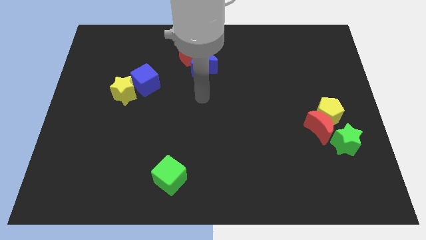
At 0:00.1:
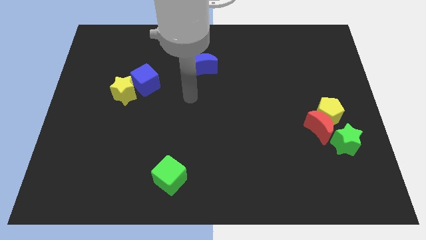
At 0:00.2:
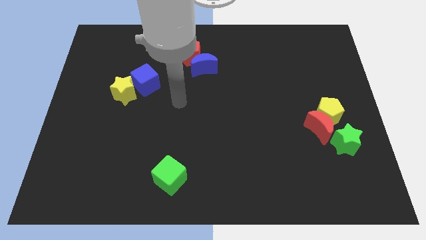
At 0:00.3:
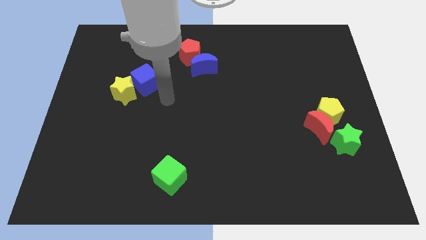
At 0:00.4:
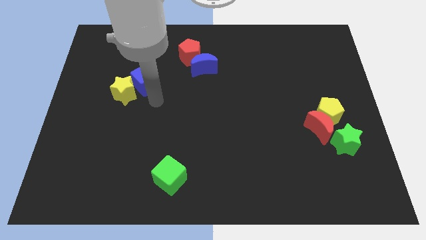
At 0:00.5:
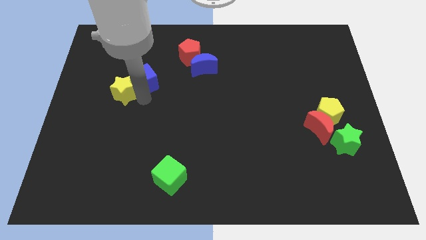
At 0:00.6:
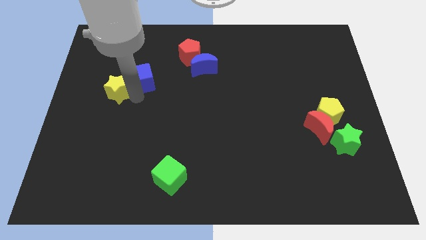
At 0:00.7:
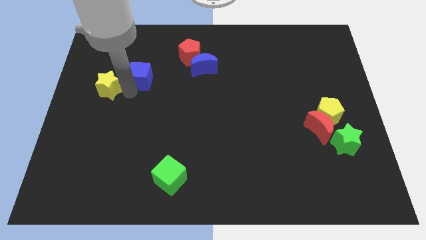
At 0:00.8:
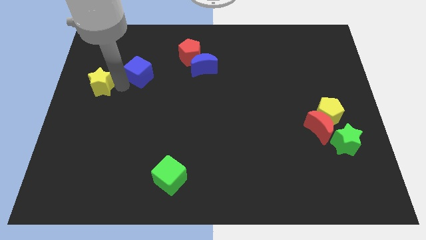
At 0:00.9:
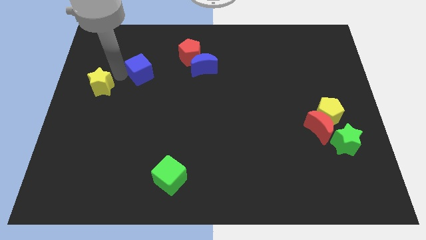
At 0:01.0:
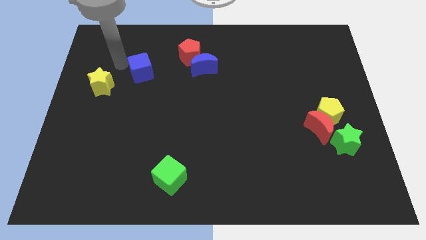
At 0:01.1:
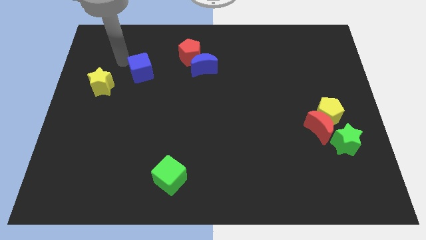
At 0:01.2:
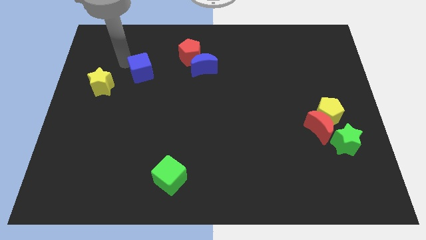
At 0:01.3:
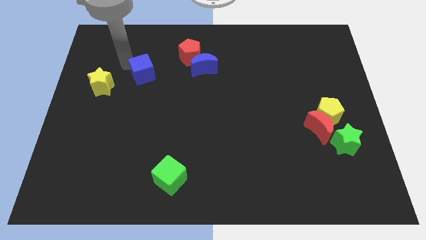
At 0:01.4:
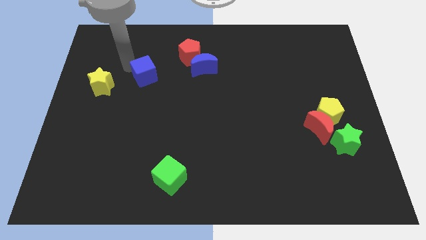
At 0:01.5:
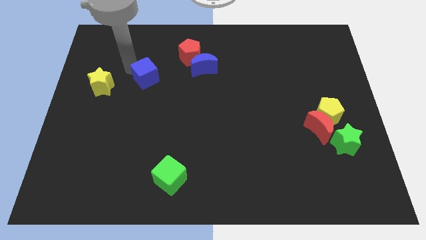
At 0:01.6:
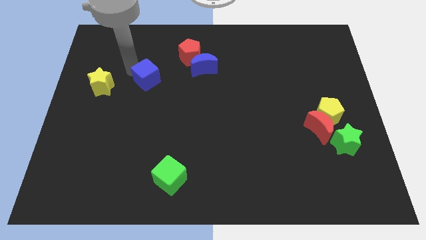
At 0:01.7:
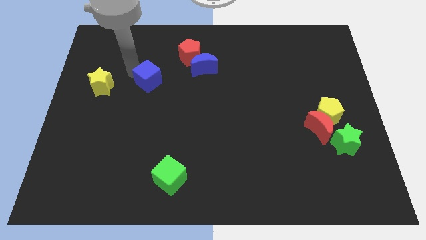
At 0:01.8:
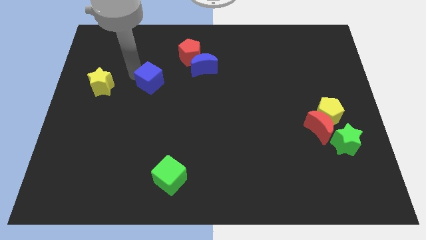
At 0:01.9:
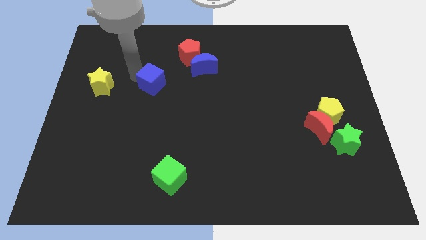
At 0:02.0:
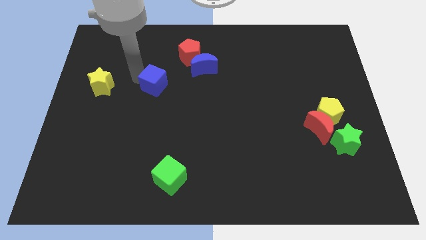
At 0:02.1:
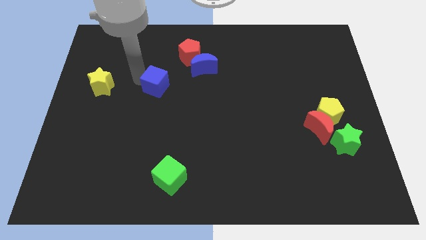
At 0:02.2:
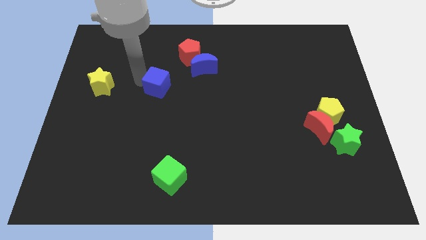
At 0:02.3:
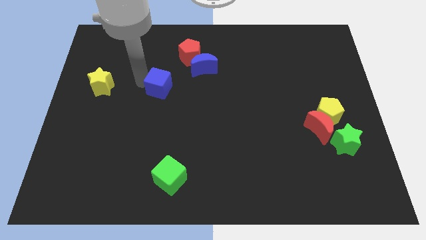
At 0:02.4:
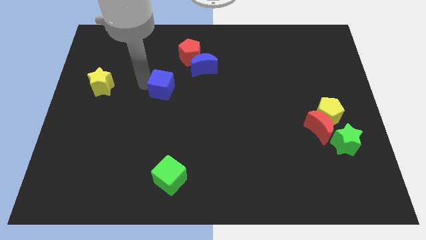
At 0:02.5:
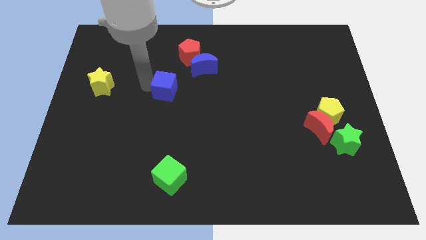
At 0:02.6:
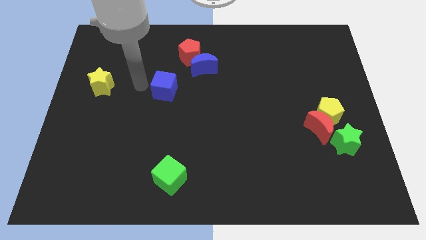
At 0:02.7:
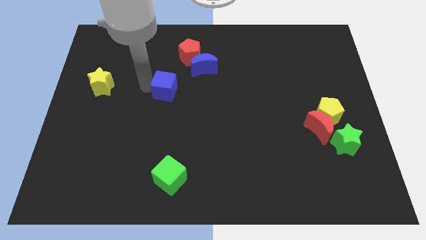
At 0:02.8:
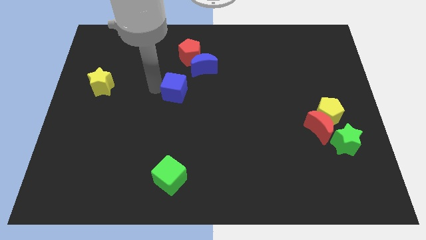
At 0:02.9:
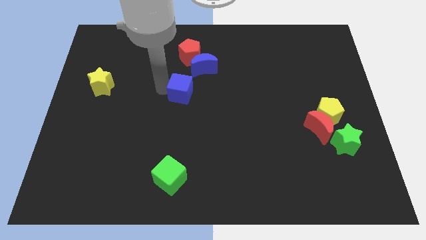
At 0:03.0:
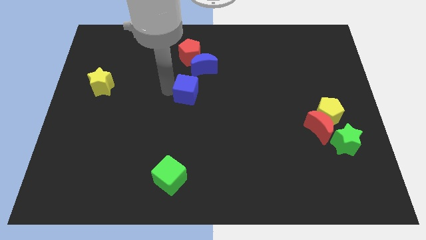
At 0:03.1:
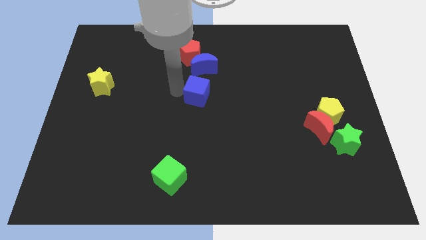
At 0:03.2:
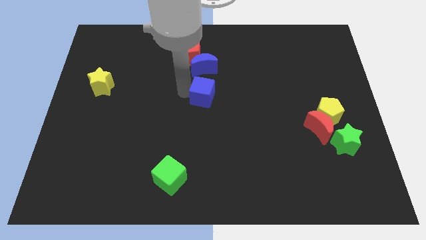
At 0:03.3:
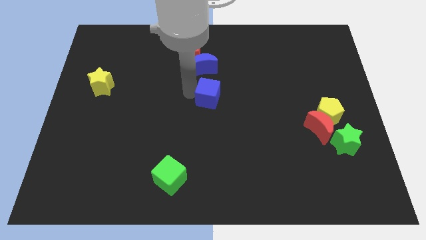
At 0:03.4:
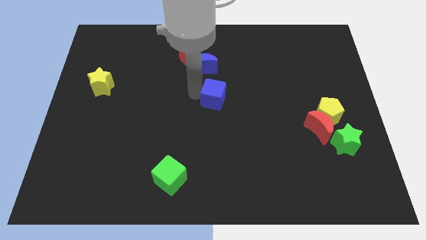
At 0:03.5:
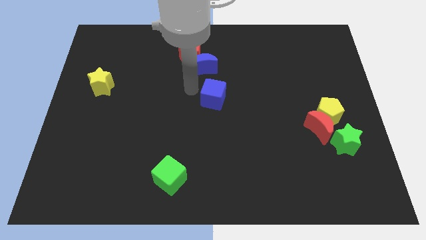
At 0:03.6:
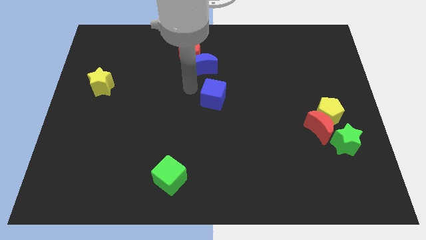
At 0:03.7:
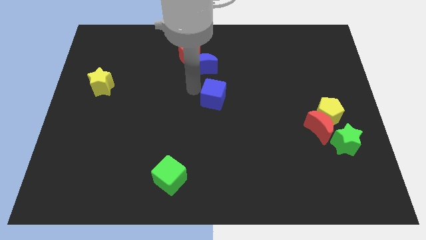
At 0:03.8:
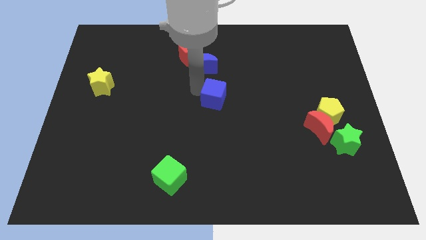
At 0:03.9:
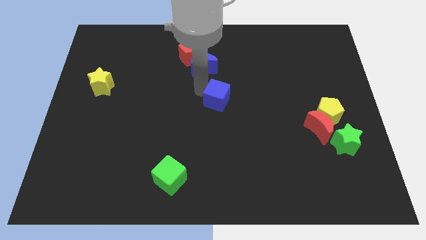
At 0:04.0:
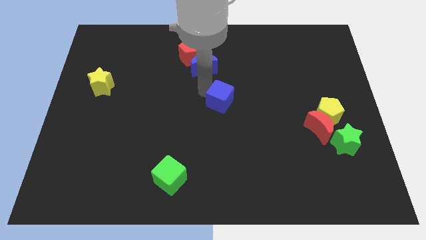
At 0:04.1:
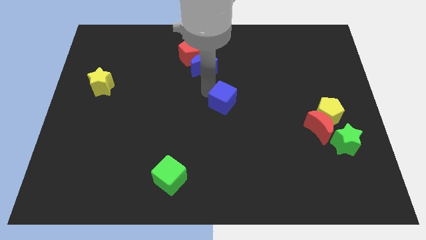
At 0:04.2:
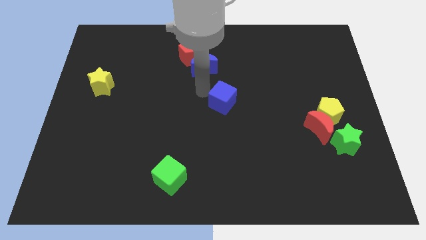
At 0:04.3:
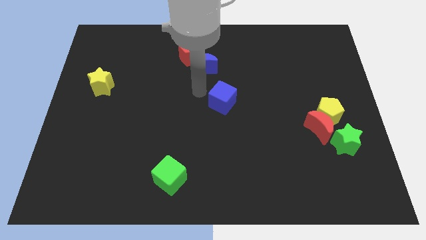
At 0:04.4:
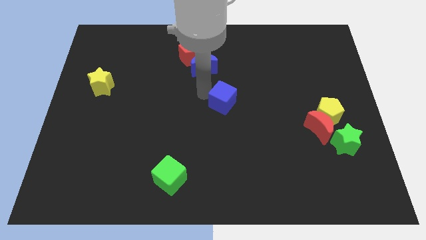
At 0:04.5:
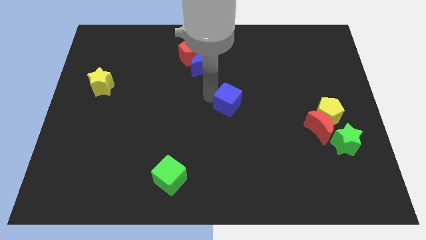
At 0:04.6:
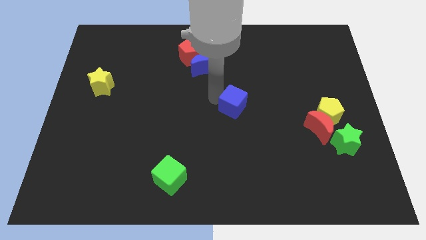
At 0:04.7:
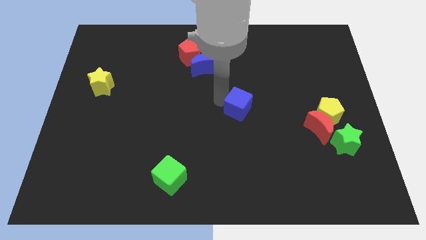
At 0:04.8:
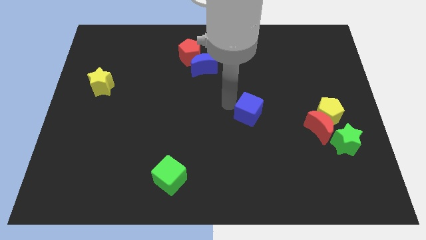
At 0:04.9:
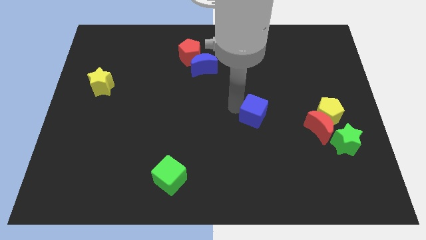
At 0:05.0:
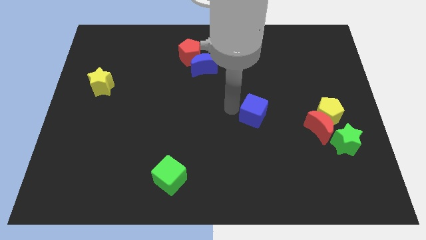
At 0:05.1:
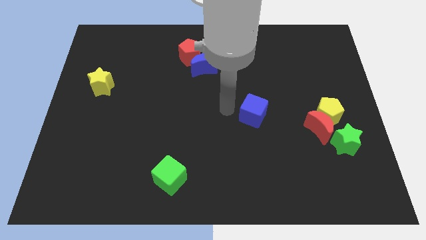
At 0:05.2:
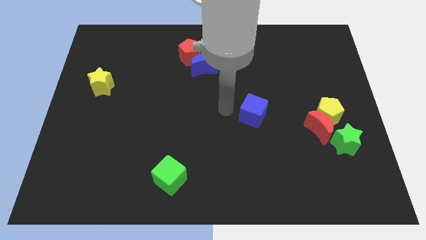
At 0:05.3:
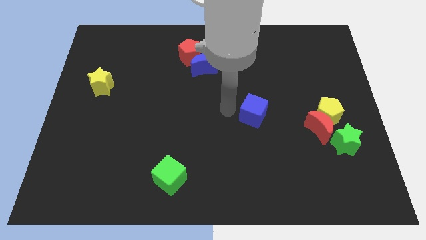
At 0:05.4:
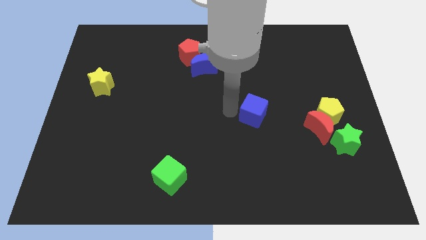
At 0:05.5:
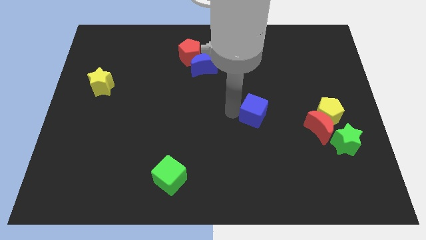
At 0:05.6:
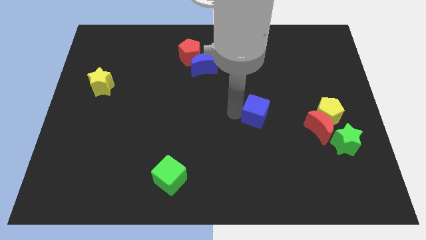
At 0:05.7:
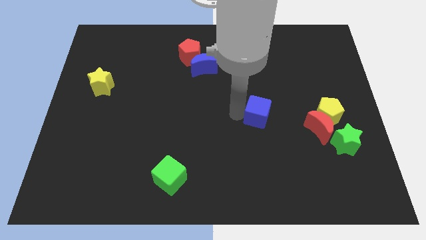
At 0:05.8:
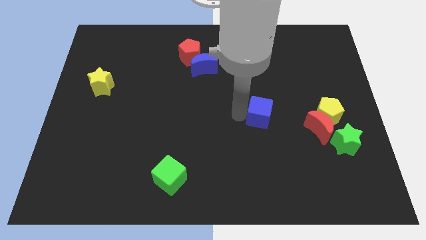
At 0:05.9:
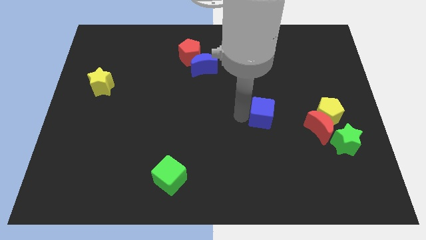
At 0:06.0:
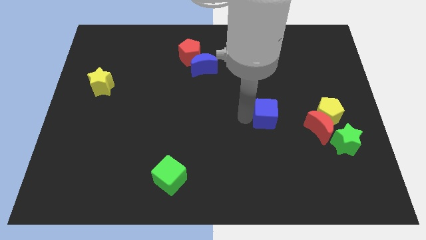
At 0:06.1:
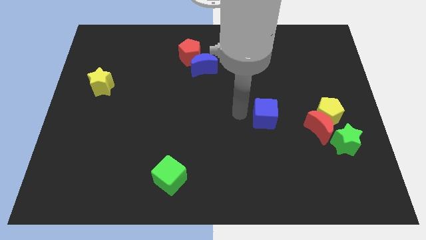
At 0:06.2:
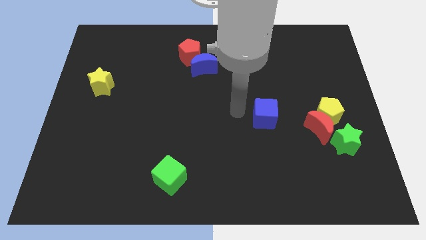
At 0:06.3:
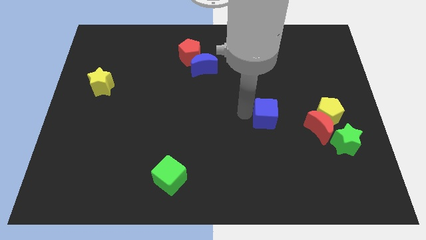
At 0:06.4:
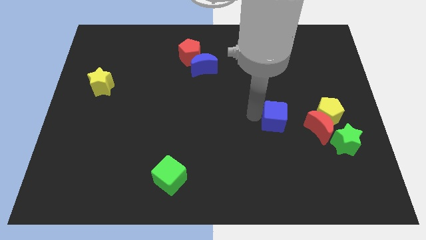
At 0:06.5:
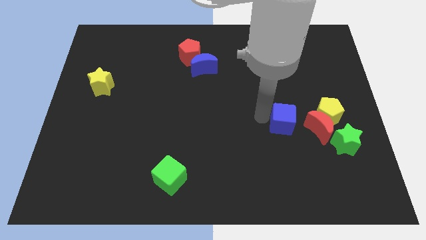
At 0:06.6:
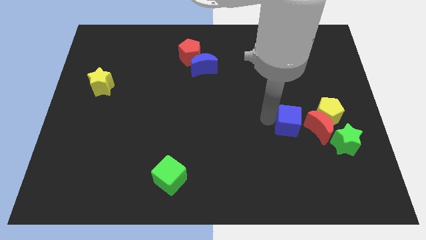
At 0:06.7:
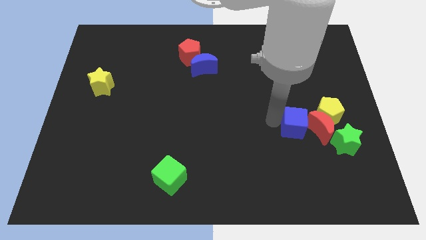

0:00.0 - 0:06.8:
move the blue cube close to the red moon
